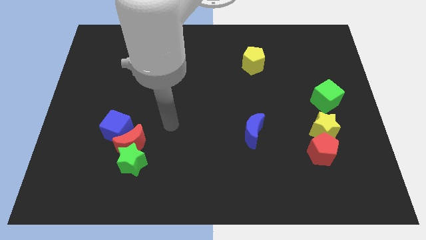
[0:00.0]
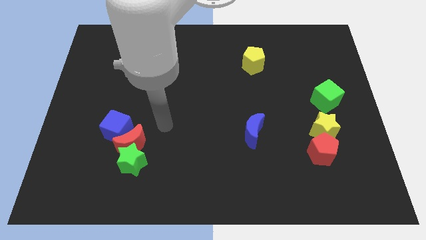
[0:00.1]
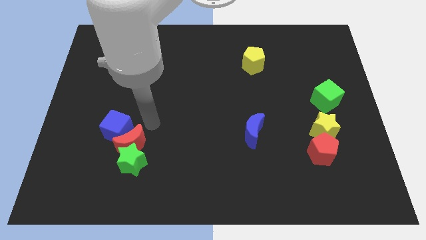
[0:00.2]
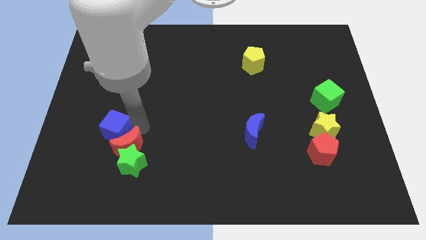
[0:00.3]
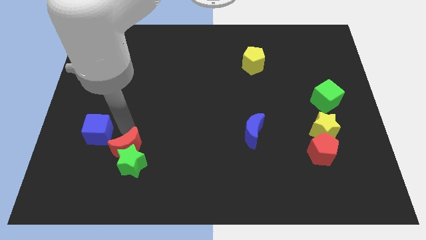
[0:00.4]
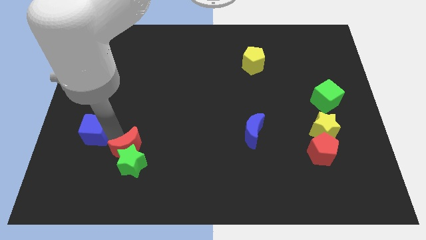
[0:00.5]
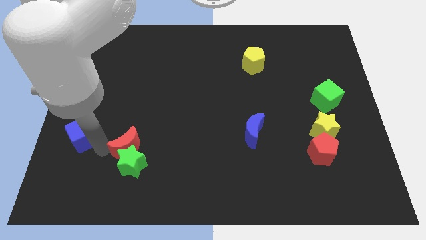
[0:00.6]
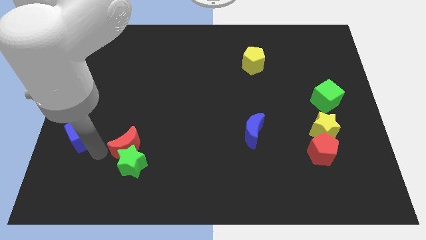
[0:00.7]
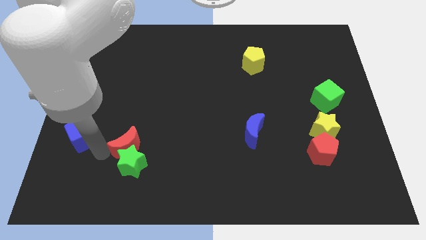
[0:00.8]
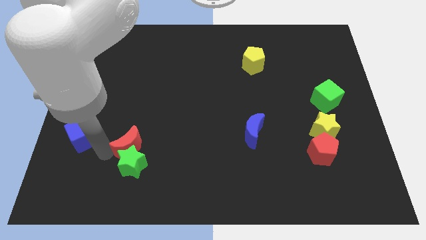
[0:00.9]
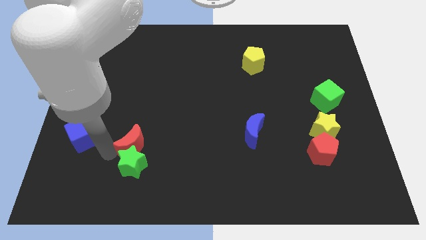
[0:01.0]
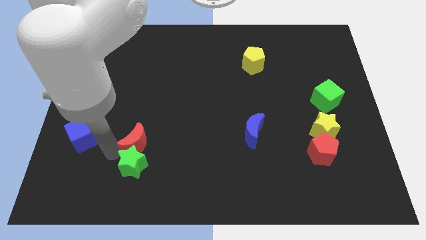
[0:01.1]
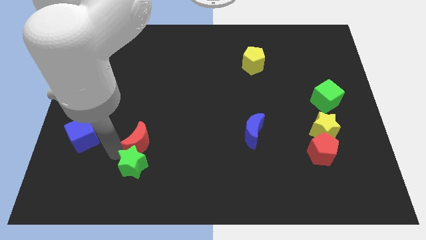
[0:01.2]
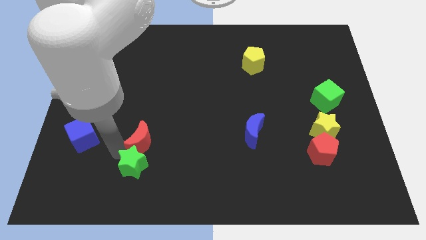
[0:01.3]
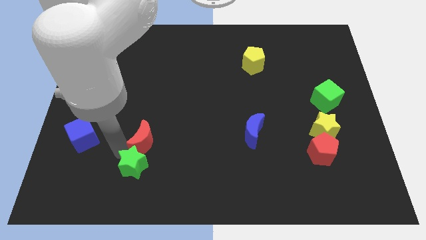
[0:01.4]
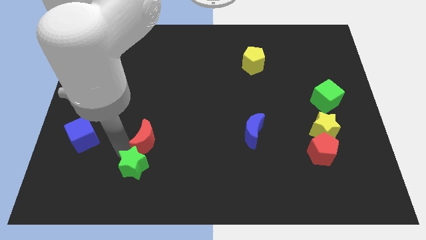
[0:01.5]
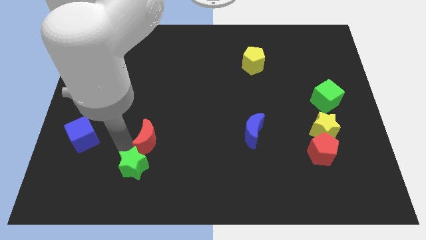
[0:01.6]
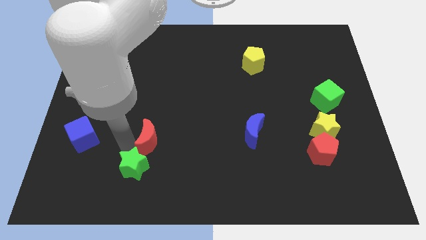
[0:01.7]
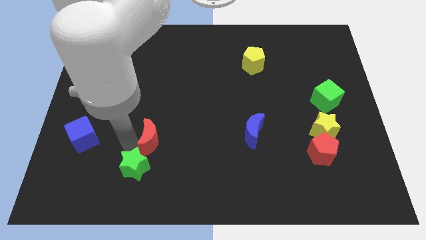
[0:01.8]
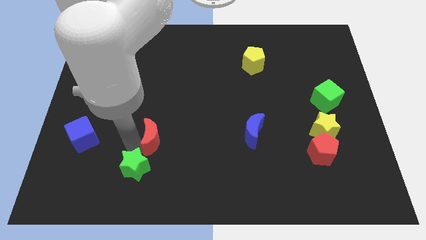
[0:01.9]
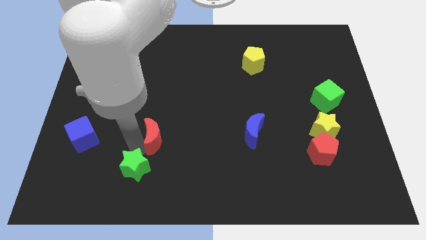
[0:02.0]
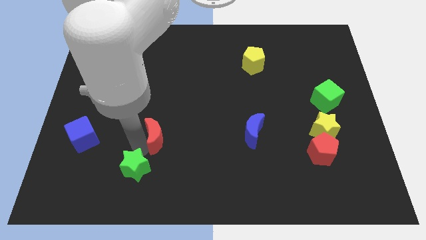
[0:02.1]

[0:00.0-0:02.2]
move the red moon away from the green star and blue cube

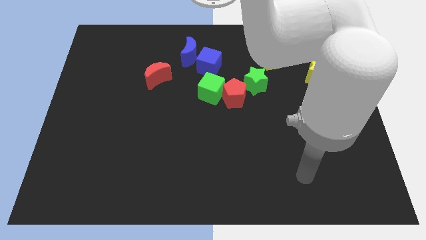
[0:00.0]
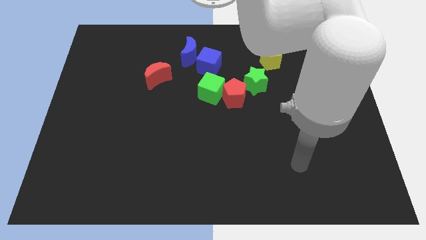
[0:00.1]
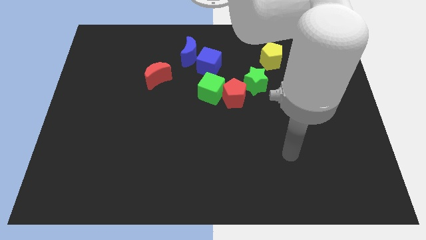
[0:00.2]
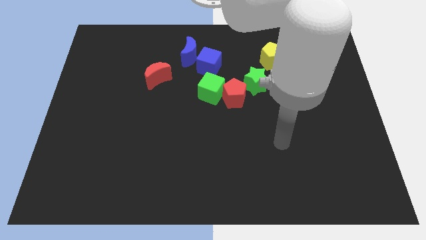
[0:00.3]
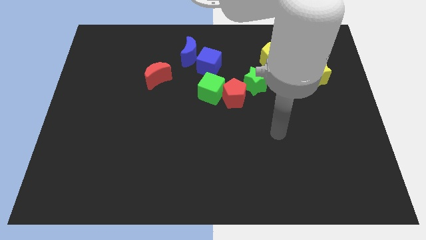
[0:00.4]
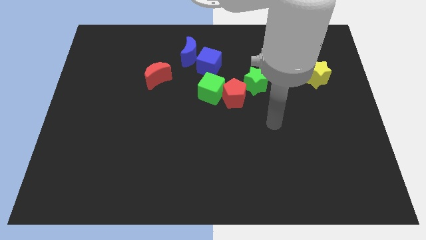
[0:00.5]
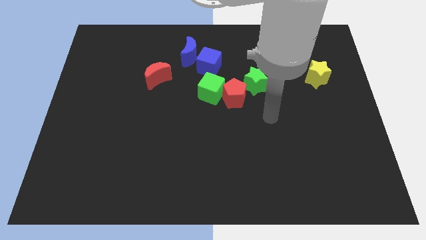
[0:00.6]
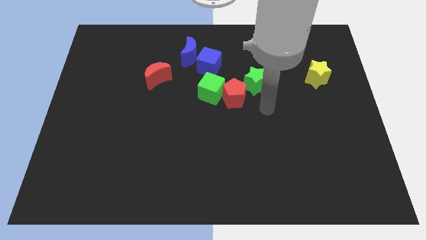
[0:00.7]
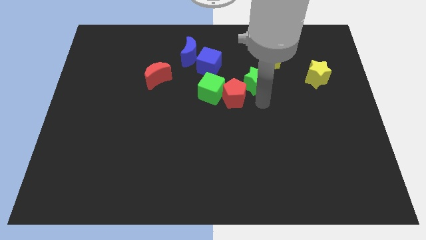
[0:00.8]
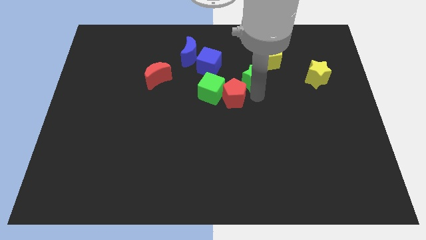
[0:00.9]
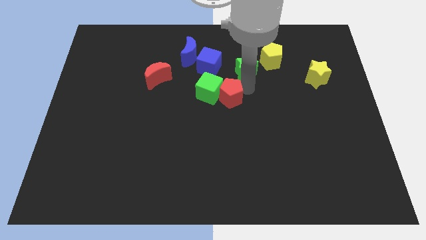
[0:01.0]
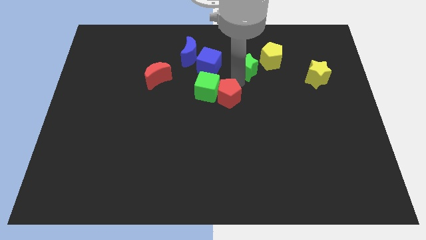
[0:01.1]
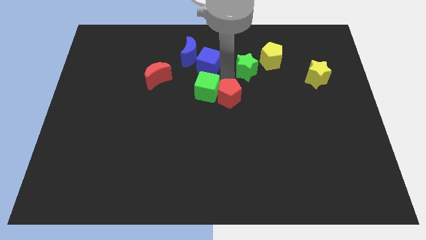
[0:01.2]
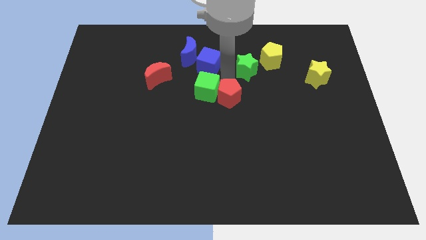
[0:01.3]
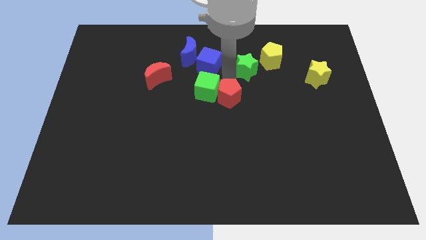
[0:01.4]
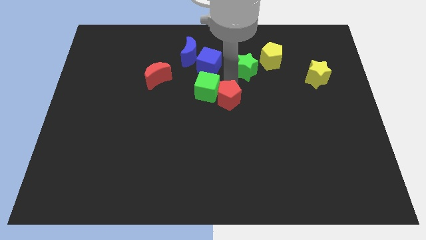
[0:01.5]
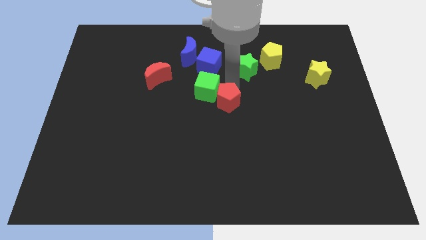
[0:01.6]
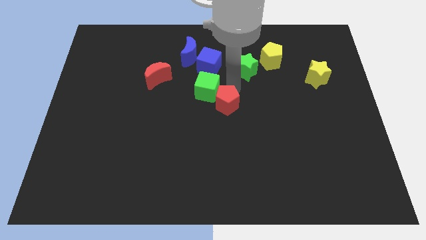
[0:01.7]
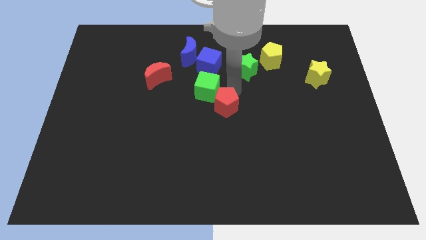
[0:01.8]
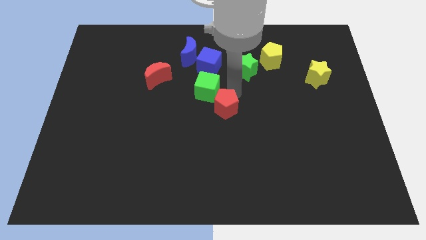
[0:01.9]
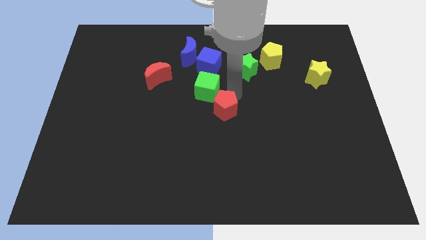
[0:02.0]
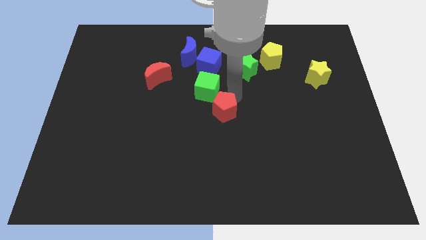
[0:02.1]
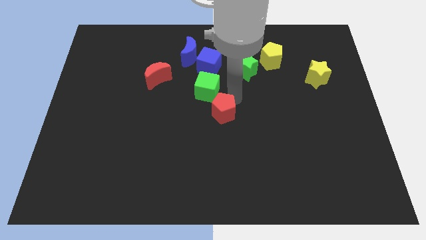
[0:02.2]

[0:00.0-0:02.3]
separate the red pentagon from the green cube and green star

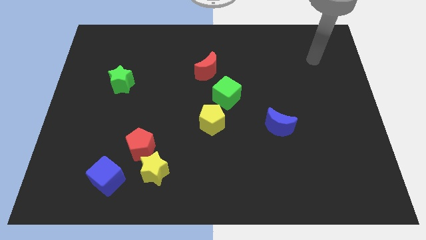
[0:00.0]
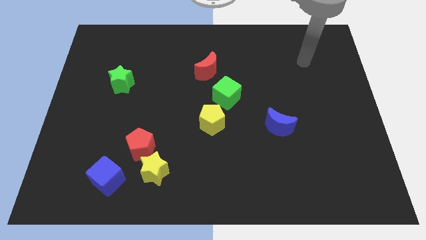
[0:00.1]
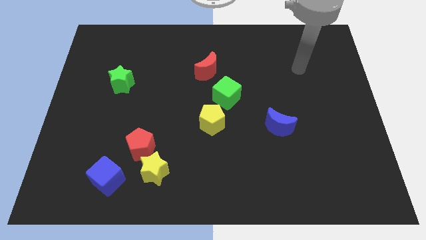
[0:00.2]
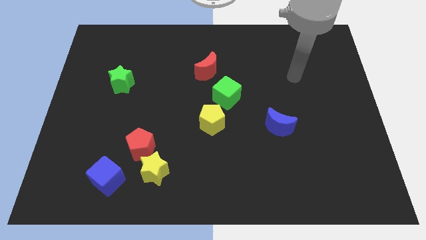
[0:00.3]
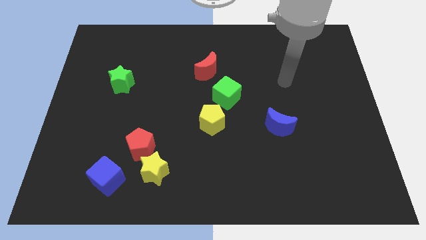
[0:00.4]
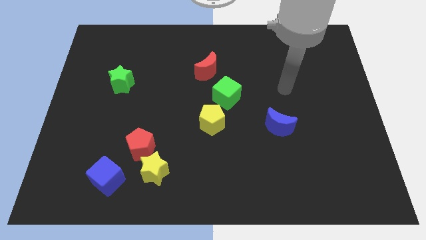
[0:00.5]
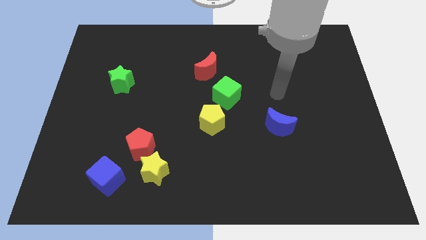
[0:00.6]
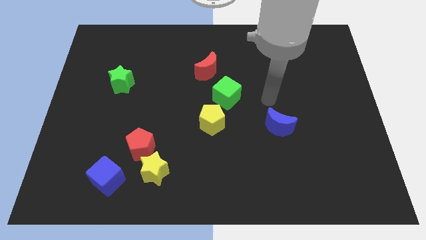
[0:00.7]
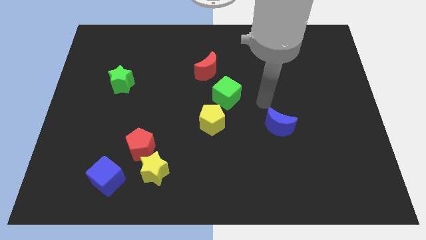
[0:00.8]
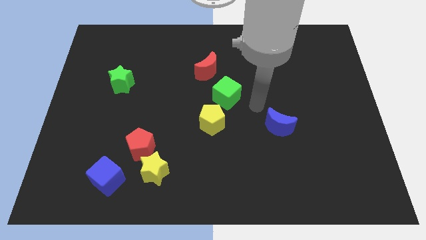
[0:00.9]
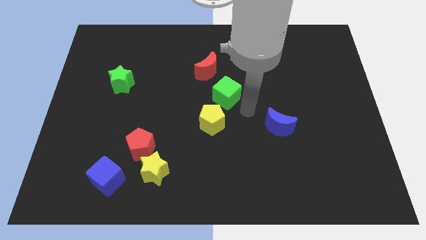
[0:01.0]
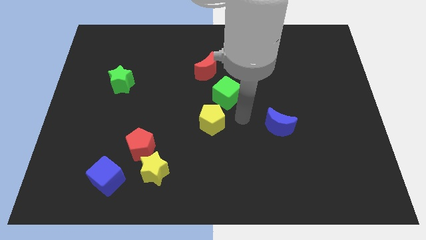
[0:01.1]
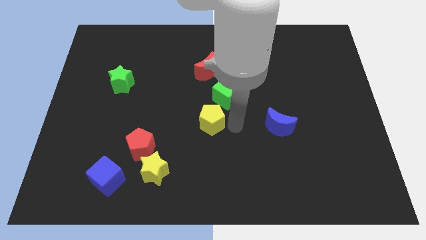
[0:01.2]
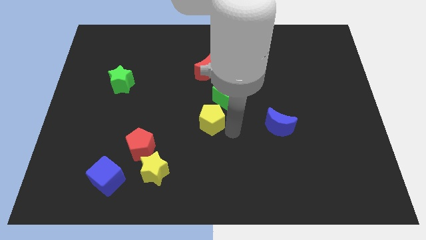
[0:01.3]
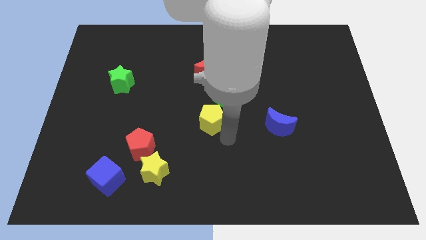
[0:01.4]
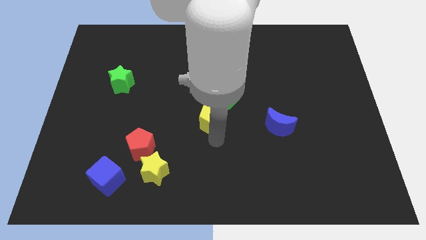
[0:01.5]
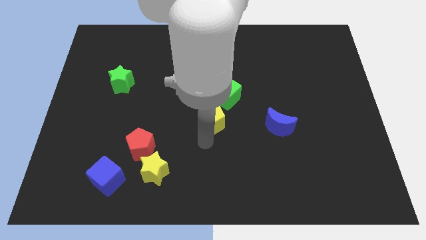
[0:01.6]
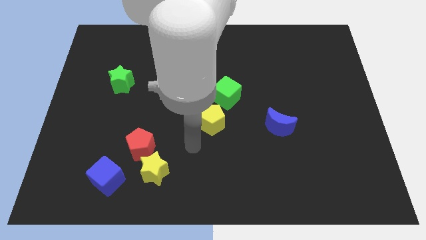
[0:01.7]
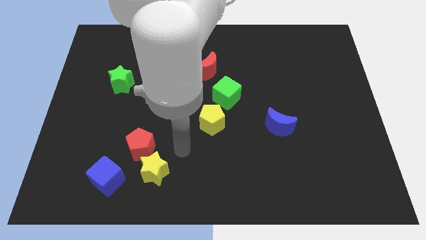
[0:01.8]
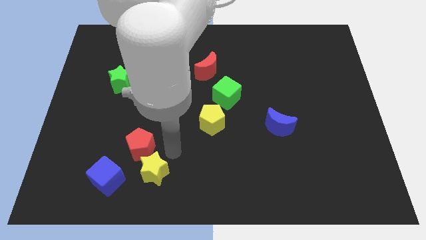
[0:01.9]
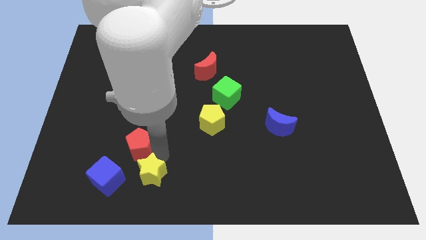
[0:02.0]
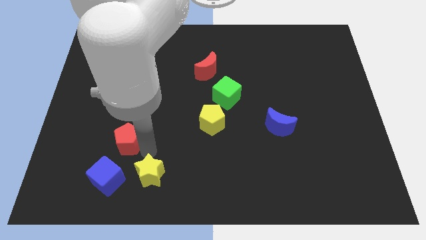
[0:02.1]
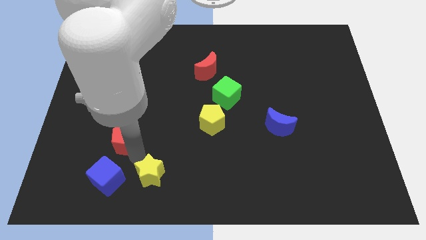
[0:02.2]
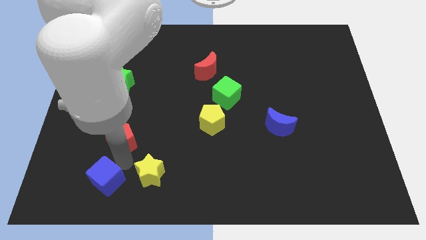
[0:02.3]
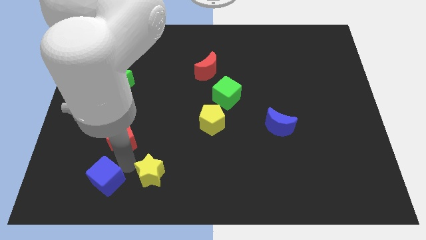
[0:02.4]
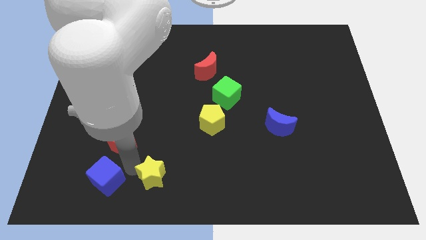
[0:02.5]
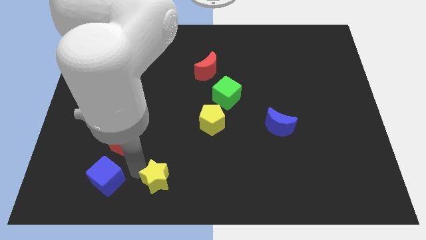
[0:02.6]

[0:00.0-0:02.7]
pull the yellow star apart from the red pentagon and blue cube

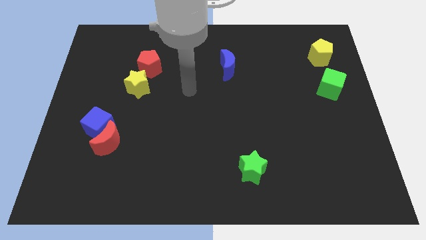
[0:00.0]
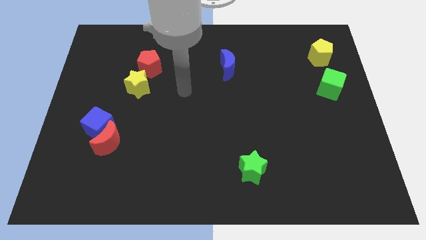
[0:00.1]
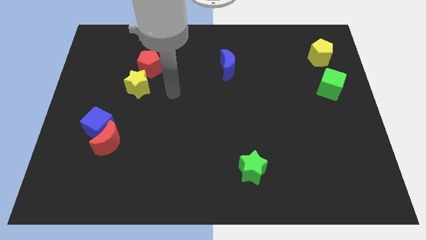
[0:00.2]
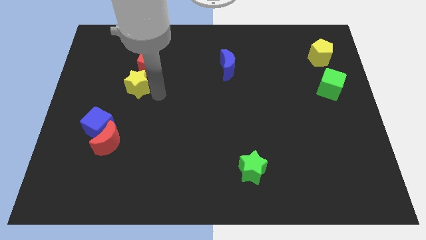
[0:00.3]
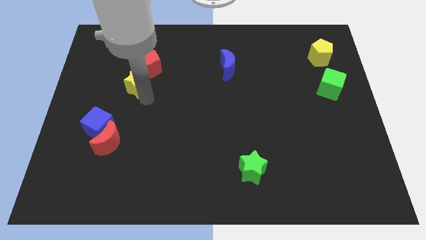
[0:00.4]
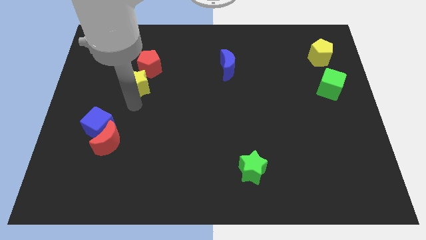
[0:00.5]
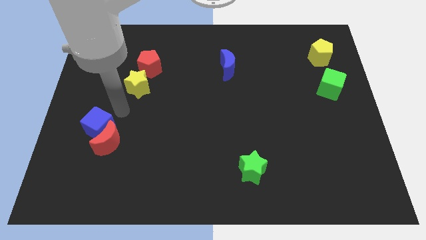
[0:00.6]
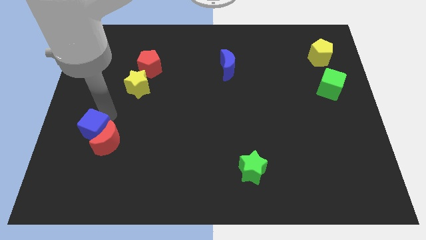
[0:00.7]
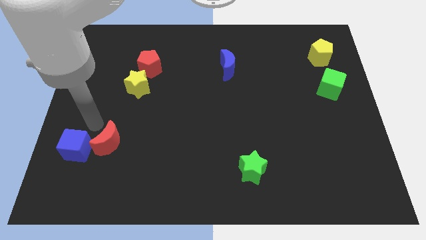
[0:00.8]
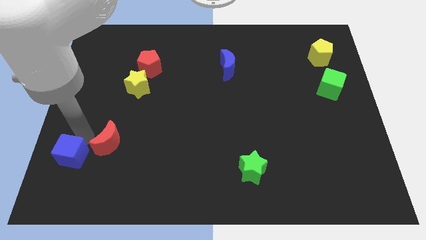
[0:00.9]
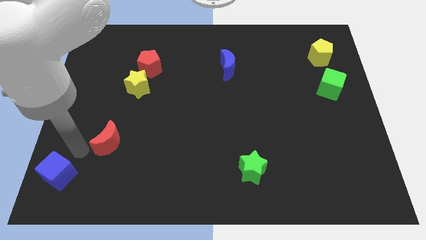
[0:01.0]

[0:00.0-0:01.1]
pull the red moon apart from the blue cube

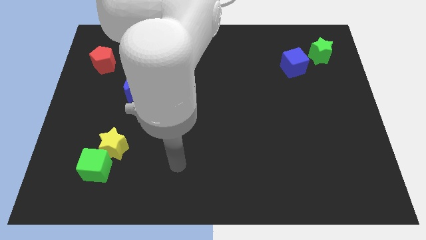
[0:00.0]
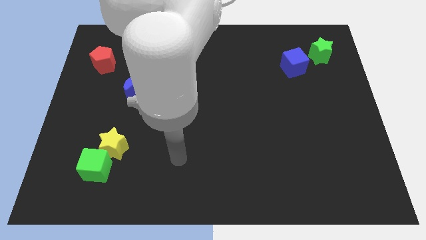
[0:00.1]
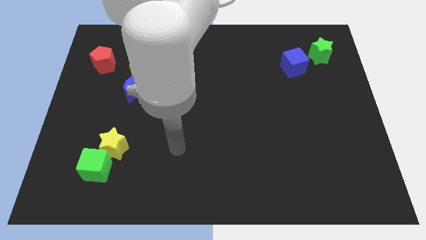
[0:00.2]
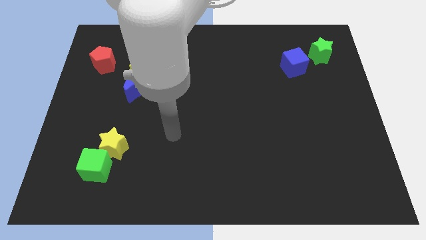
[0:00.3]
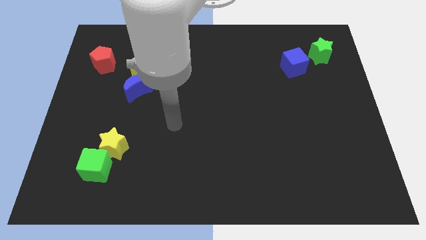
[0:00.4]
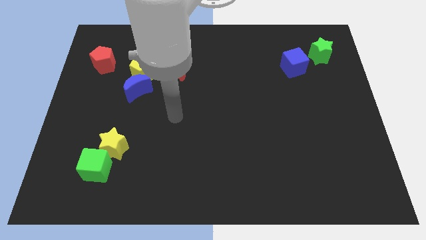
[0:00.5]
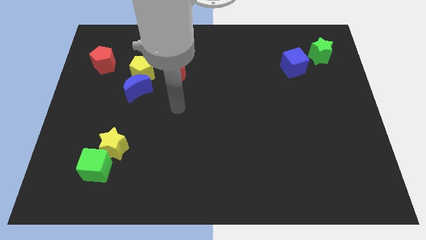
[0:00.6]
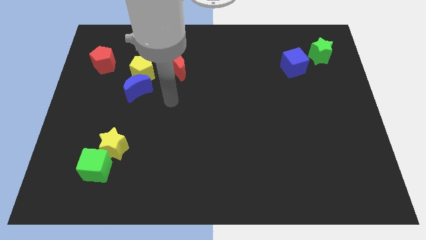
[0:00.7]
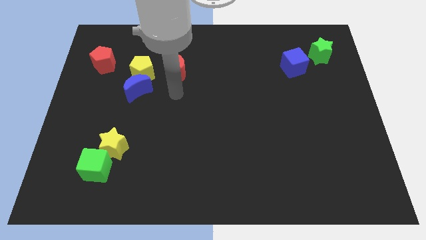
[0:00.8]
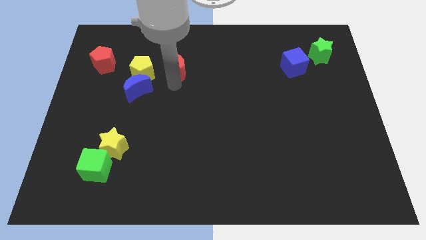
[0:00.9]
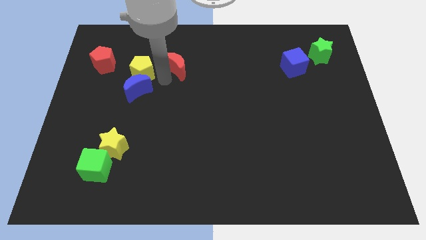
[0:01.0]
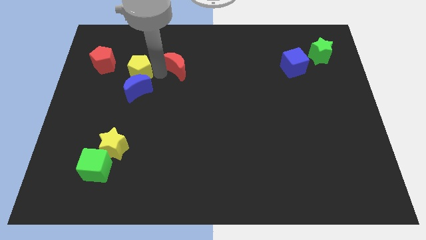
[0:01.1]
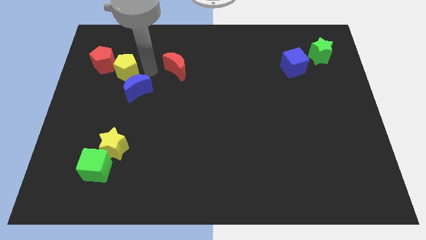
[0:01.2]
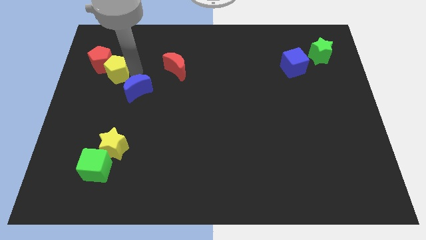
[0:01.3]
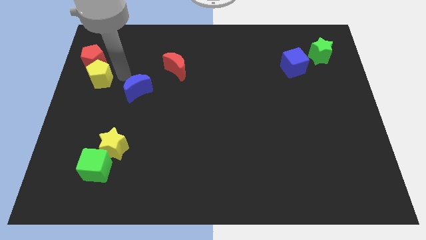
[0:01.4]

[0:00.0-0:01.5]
pull the blue moon apart from the yellow pentagon
